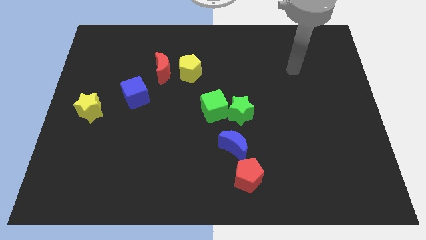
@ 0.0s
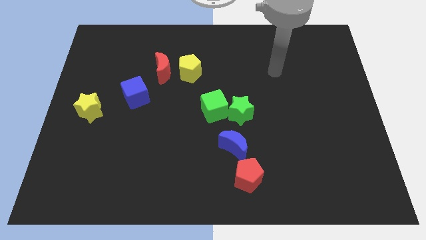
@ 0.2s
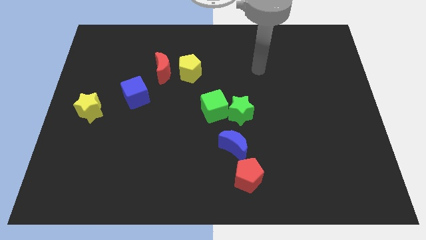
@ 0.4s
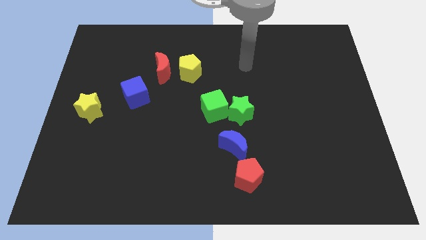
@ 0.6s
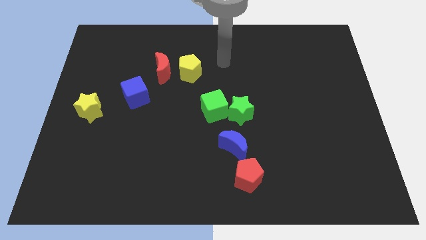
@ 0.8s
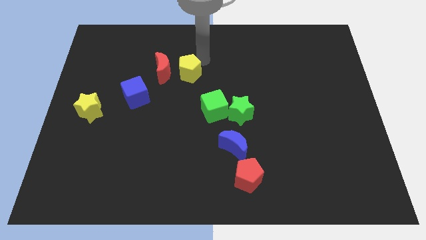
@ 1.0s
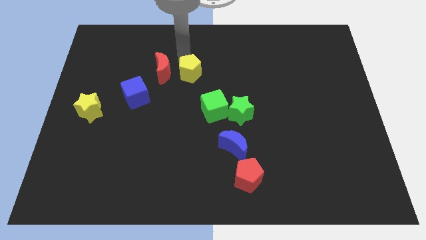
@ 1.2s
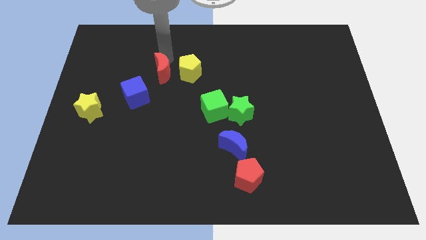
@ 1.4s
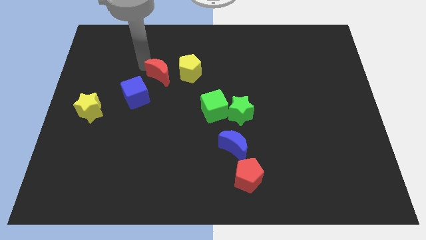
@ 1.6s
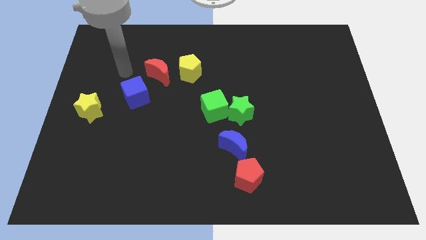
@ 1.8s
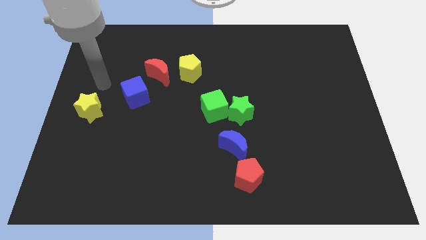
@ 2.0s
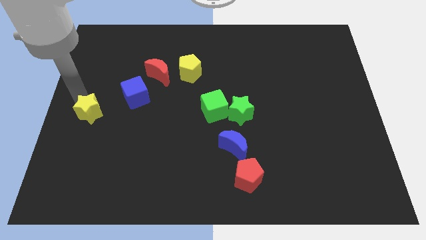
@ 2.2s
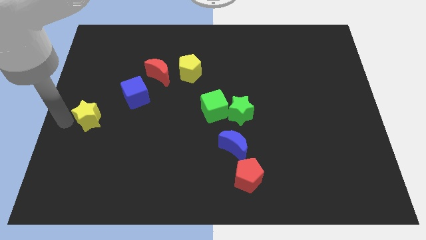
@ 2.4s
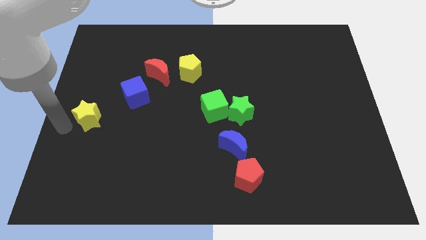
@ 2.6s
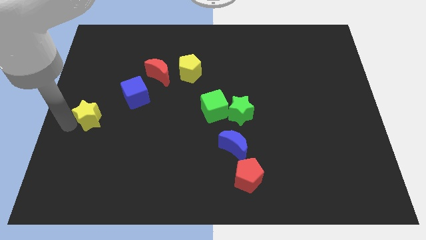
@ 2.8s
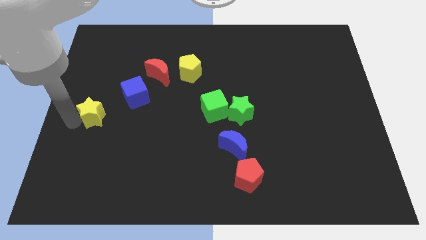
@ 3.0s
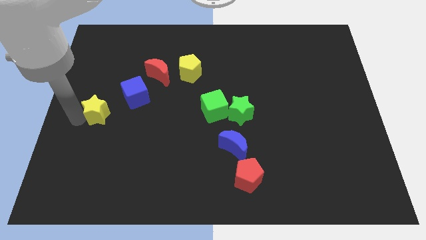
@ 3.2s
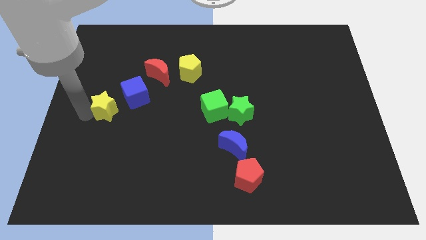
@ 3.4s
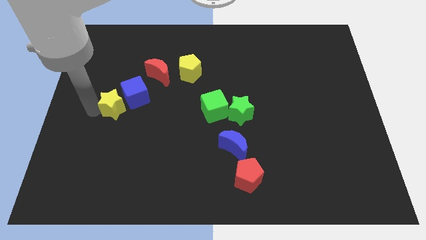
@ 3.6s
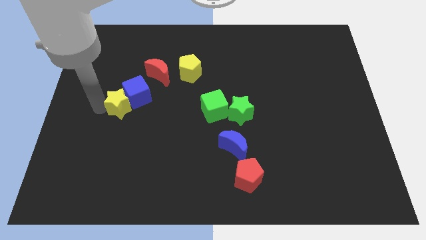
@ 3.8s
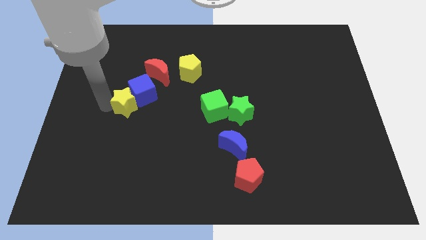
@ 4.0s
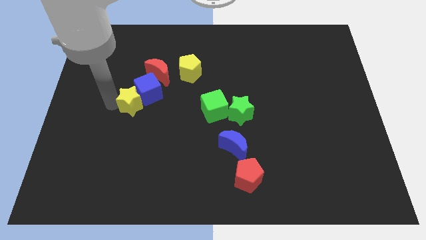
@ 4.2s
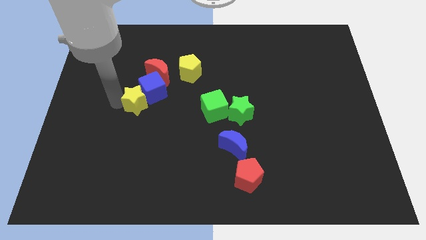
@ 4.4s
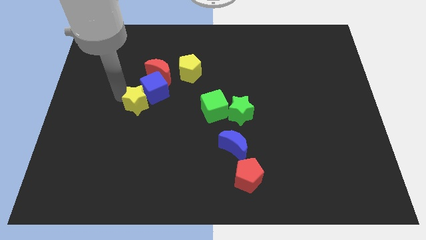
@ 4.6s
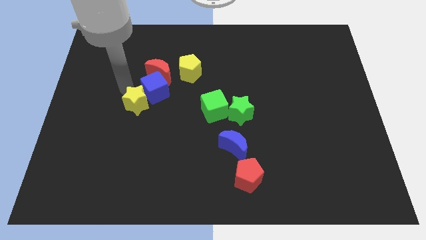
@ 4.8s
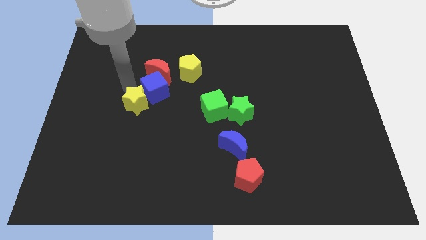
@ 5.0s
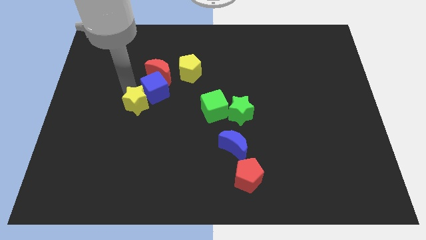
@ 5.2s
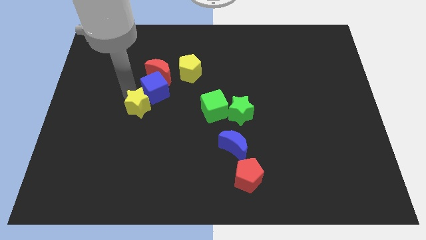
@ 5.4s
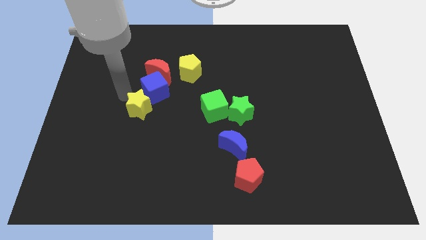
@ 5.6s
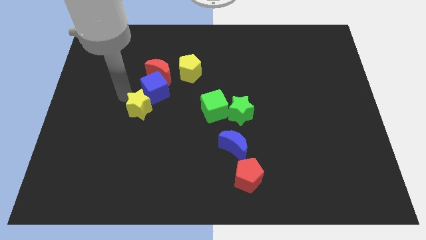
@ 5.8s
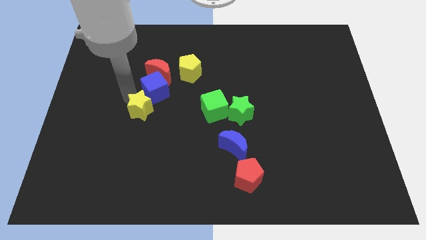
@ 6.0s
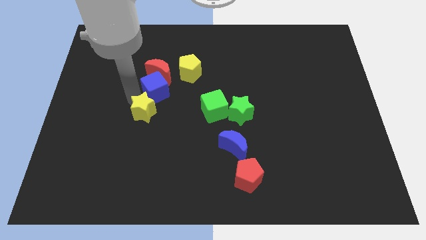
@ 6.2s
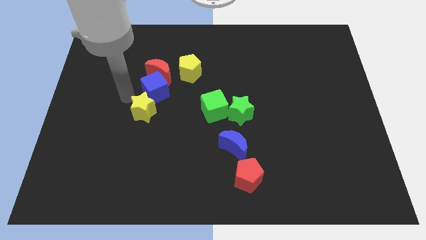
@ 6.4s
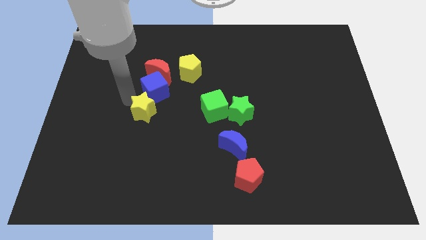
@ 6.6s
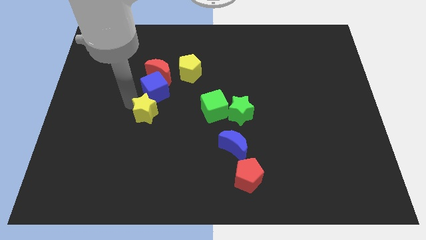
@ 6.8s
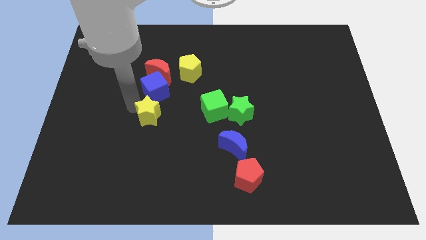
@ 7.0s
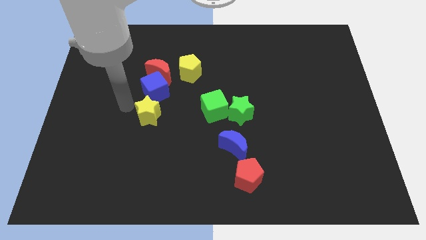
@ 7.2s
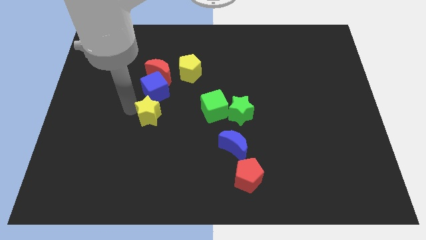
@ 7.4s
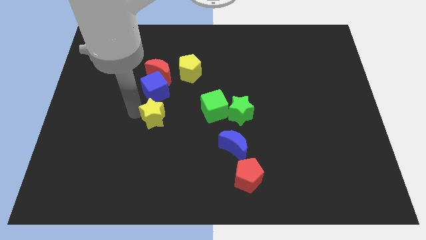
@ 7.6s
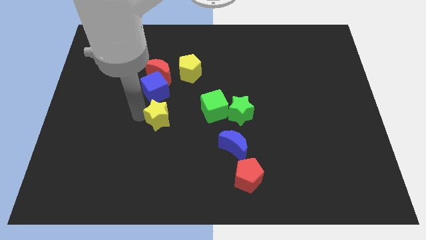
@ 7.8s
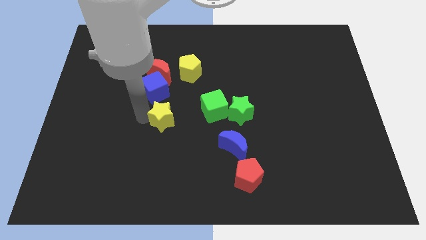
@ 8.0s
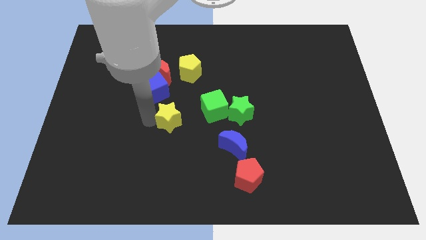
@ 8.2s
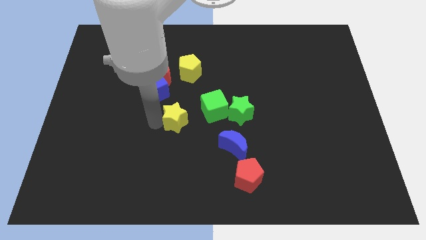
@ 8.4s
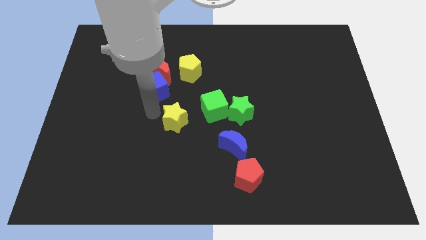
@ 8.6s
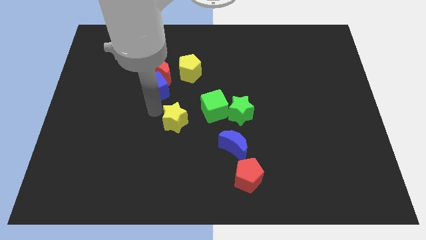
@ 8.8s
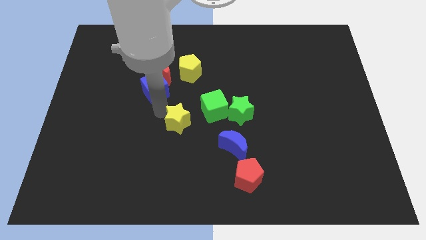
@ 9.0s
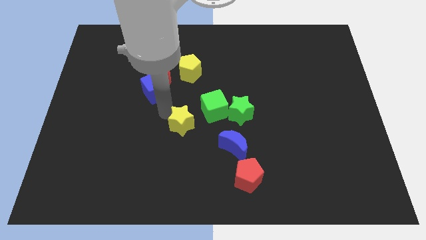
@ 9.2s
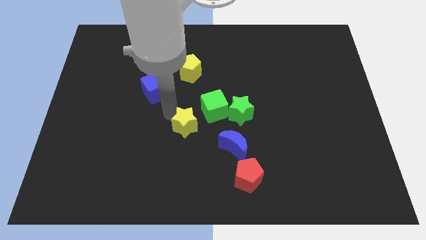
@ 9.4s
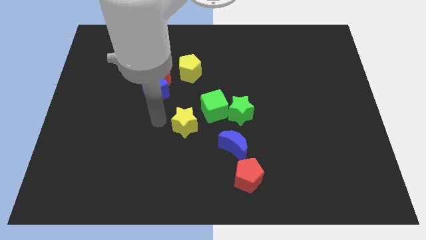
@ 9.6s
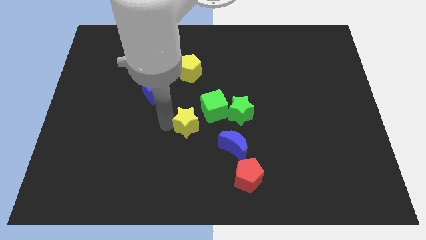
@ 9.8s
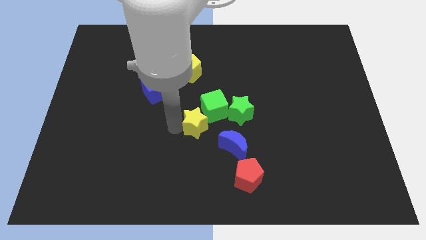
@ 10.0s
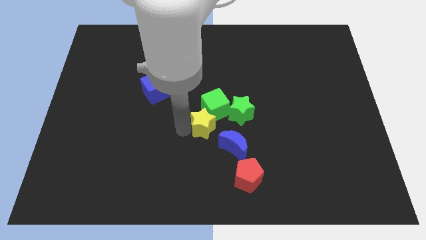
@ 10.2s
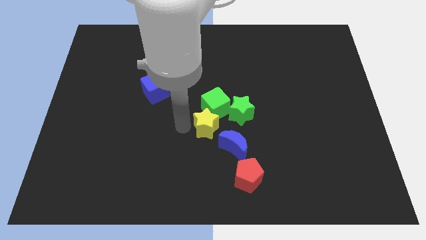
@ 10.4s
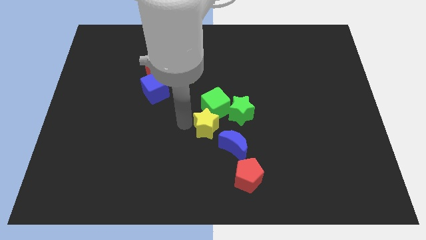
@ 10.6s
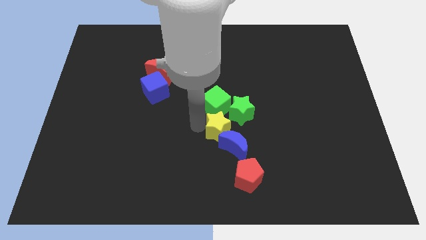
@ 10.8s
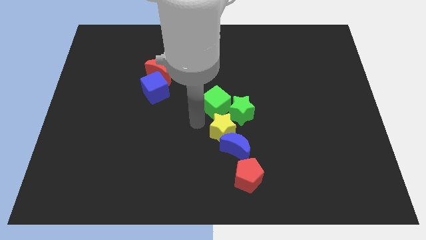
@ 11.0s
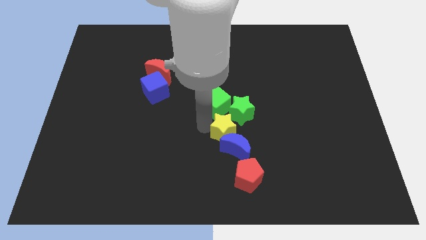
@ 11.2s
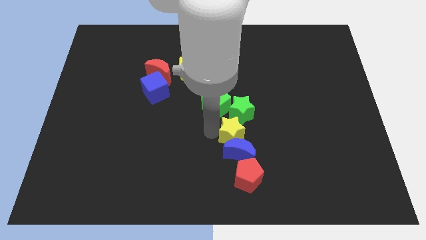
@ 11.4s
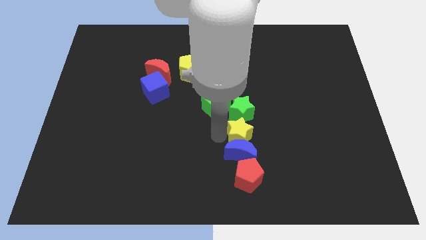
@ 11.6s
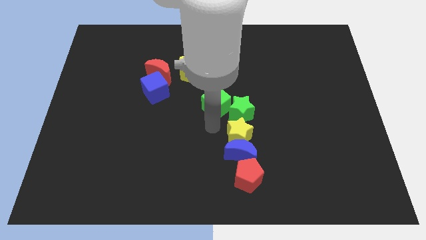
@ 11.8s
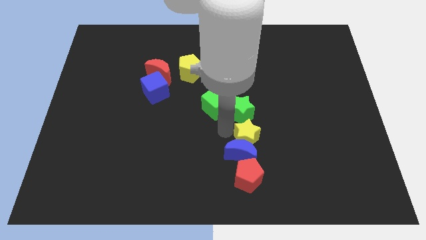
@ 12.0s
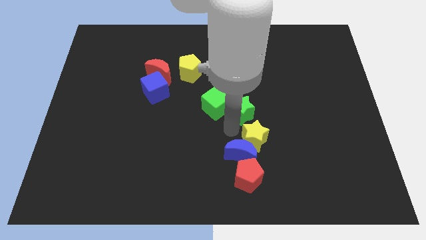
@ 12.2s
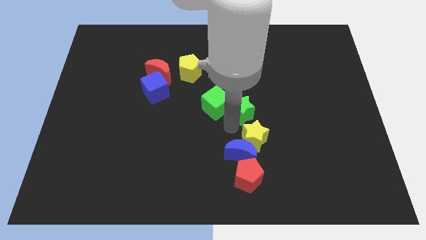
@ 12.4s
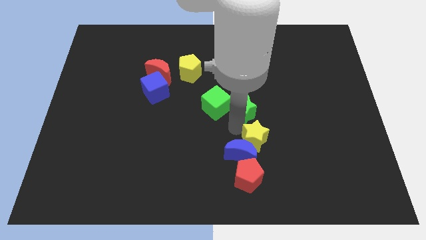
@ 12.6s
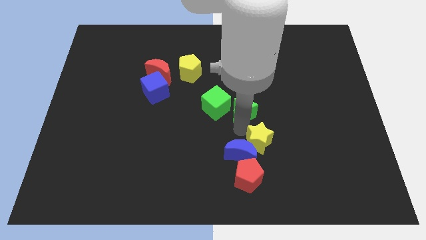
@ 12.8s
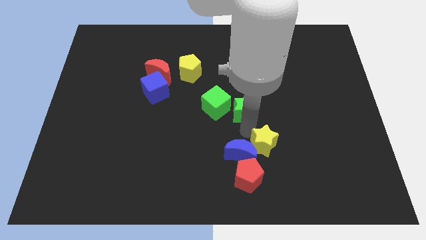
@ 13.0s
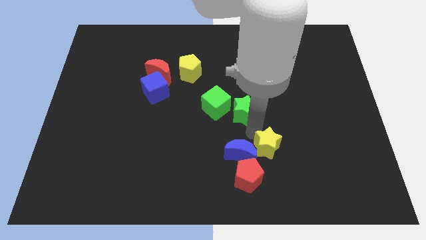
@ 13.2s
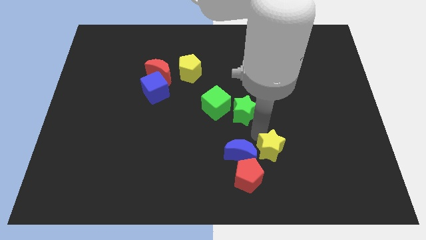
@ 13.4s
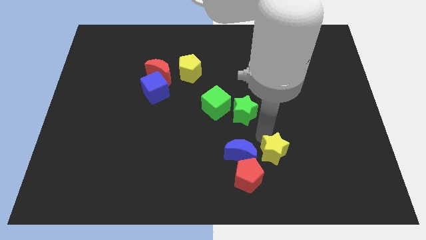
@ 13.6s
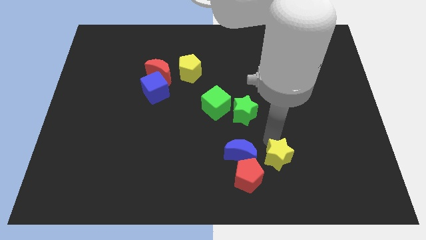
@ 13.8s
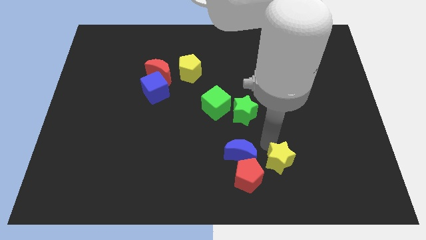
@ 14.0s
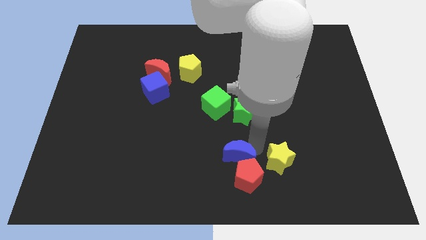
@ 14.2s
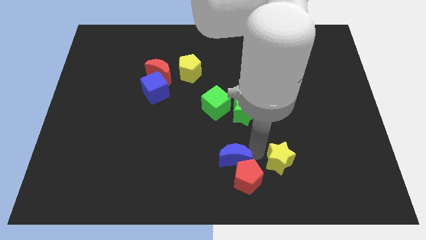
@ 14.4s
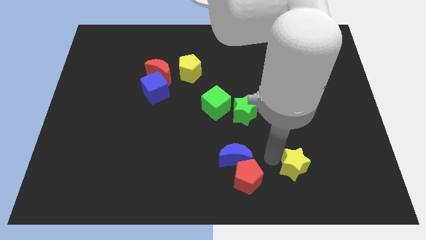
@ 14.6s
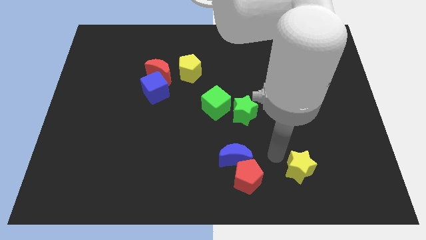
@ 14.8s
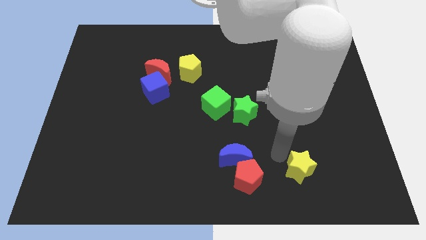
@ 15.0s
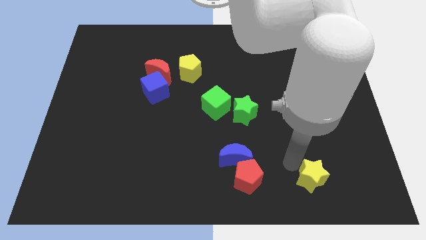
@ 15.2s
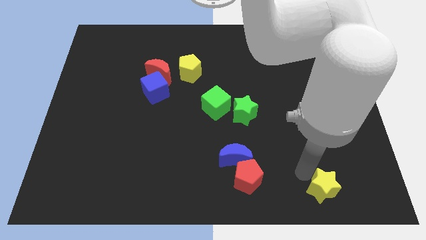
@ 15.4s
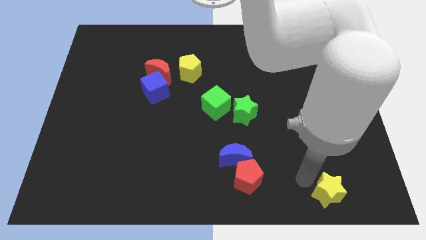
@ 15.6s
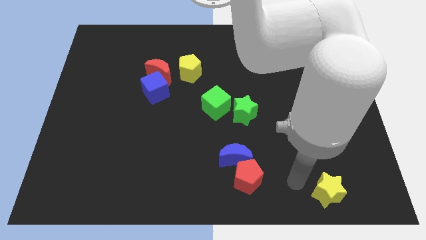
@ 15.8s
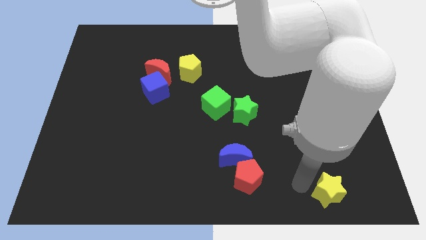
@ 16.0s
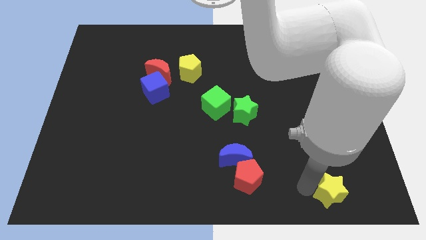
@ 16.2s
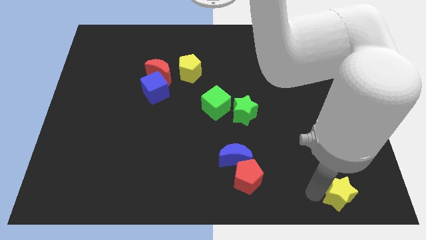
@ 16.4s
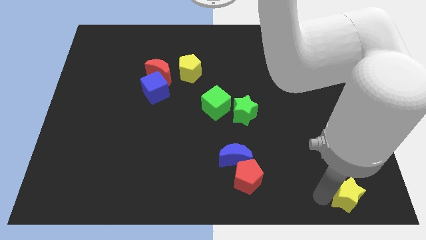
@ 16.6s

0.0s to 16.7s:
move the yellow star to the bottom right of the board
